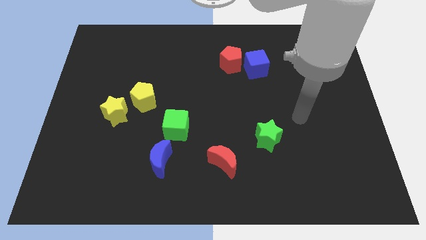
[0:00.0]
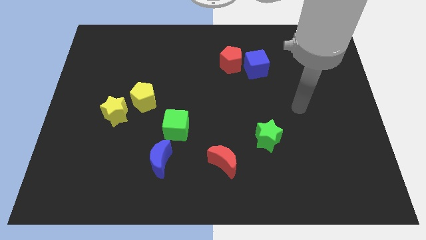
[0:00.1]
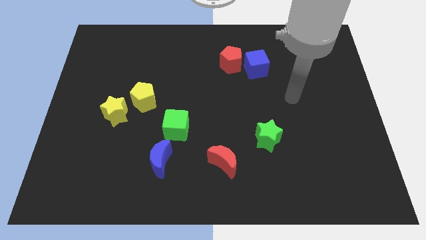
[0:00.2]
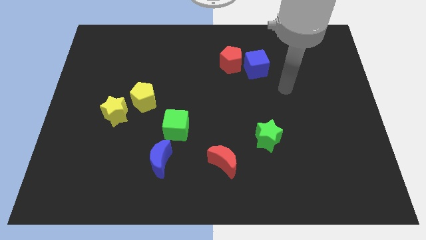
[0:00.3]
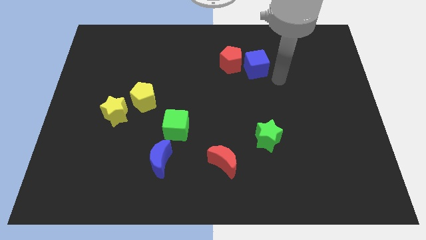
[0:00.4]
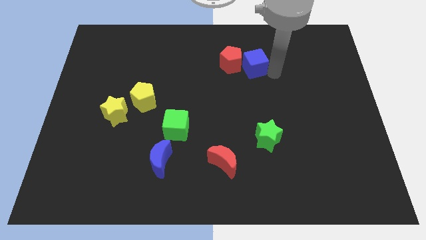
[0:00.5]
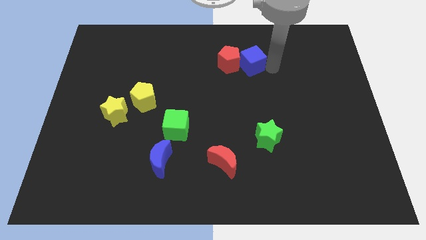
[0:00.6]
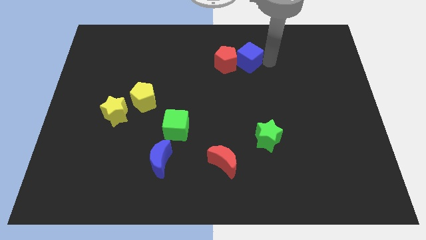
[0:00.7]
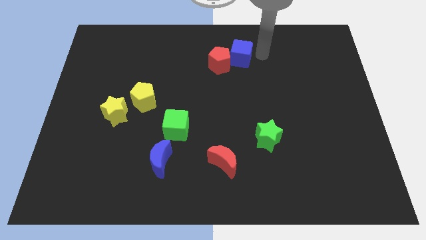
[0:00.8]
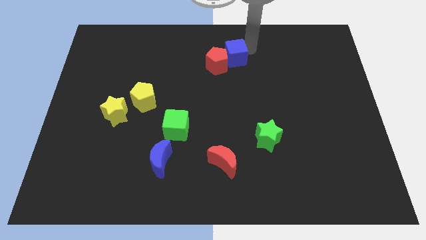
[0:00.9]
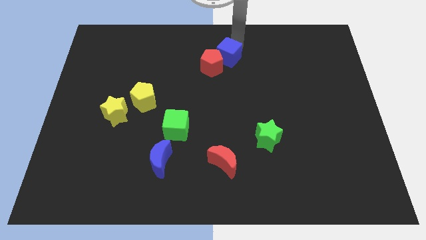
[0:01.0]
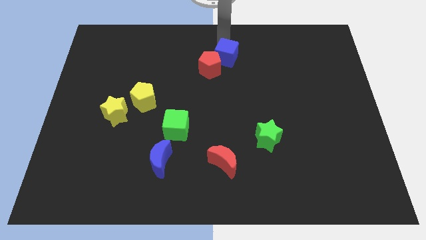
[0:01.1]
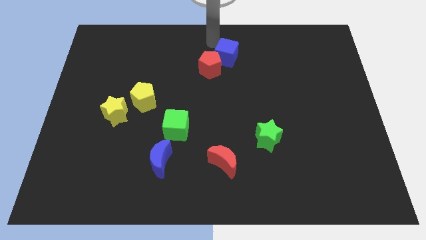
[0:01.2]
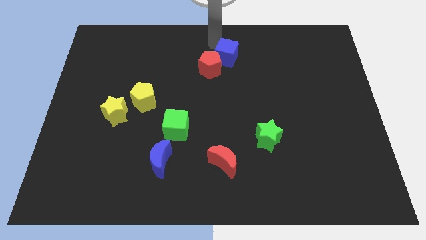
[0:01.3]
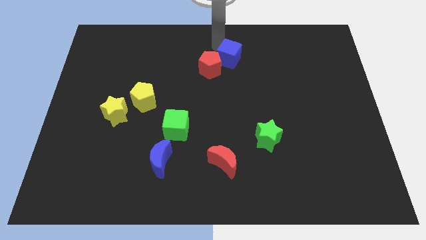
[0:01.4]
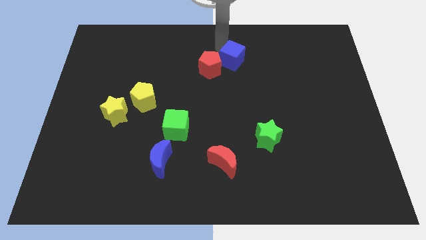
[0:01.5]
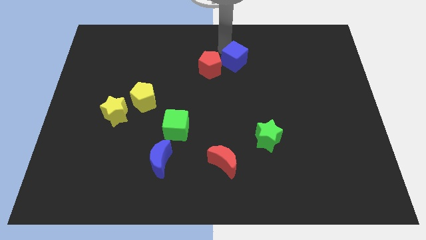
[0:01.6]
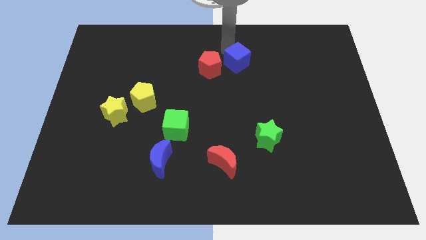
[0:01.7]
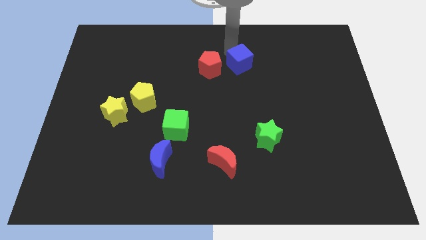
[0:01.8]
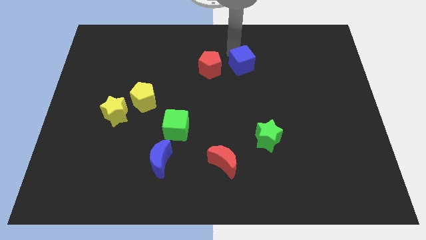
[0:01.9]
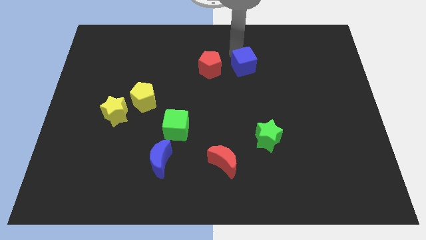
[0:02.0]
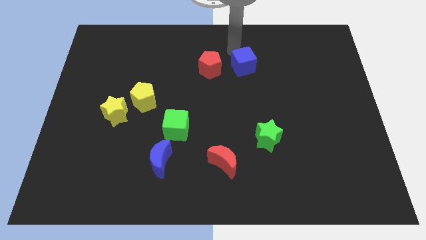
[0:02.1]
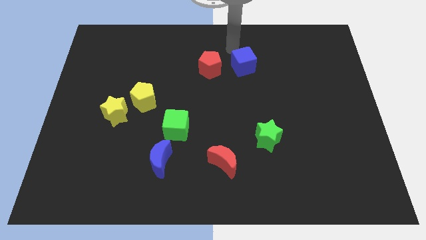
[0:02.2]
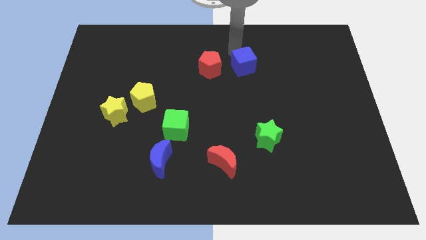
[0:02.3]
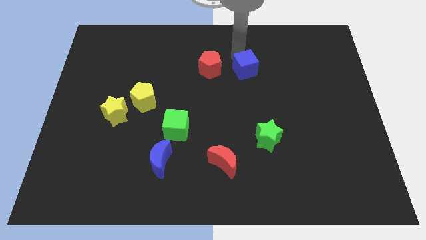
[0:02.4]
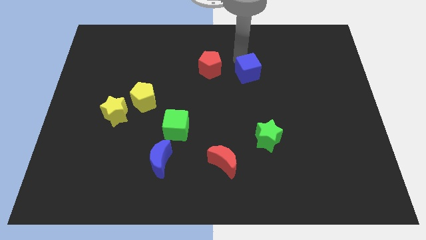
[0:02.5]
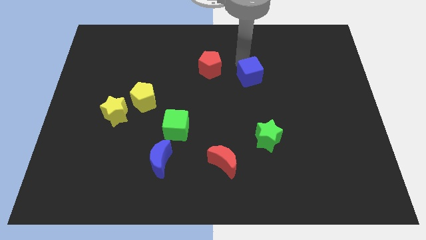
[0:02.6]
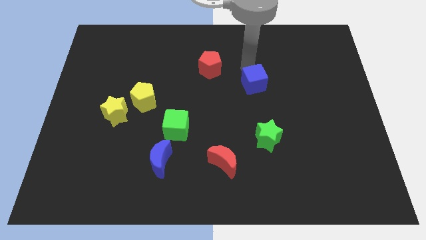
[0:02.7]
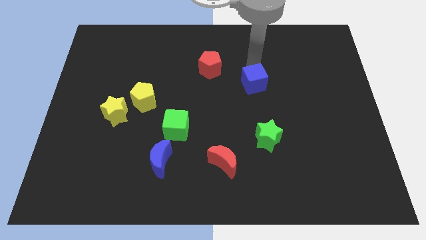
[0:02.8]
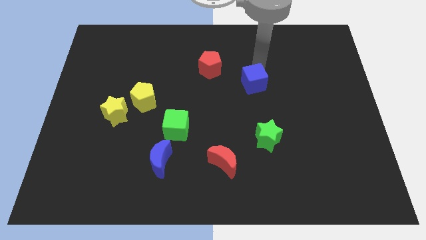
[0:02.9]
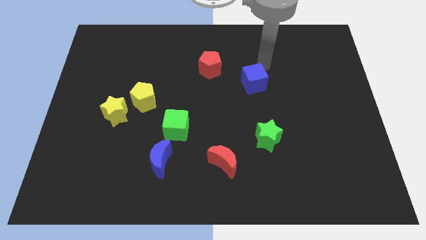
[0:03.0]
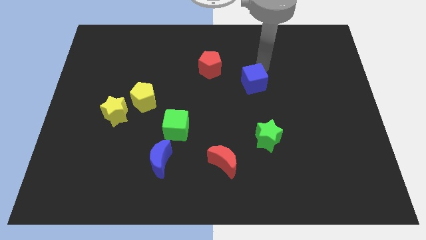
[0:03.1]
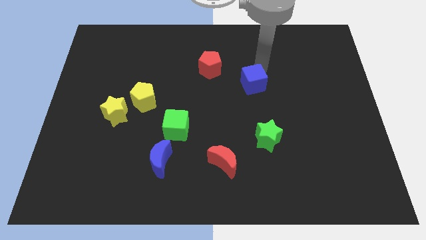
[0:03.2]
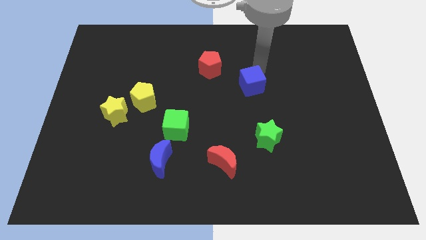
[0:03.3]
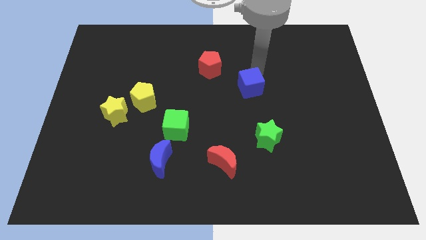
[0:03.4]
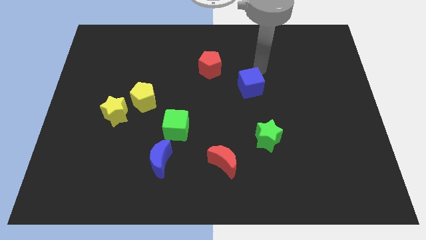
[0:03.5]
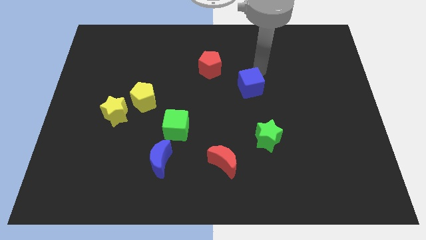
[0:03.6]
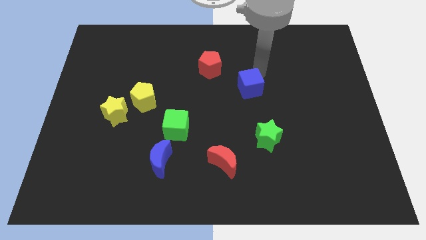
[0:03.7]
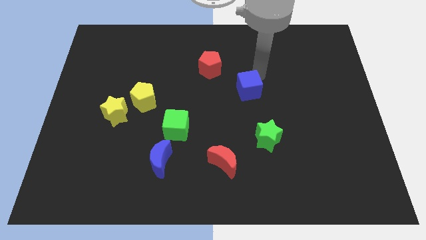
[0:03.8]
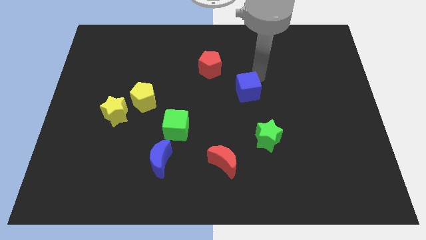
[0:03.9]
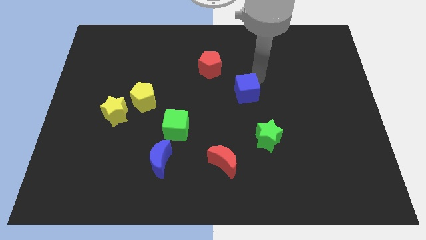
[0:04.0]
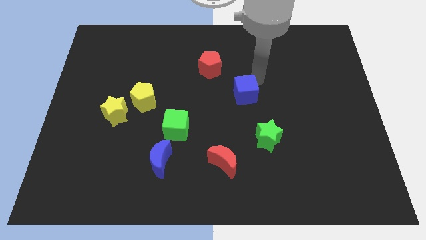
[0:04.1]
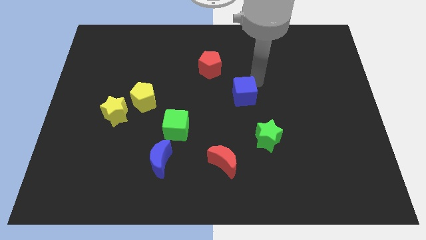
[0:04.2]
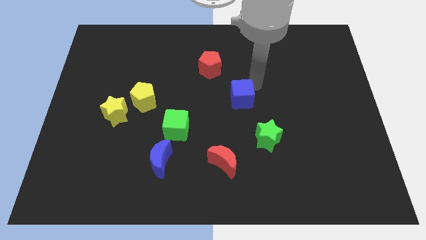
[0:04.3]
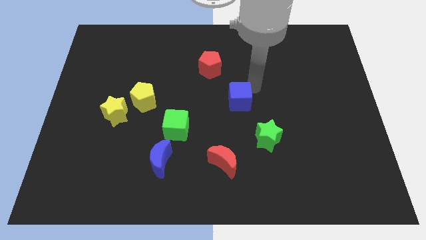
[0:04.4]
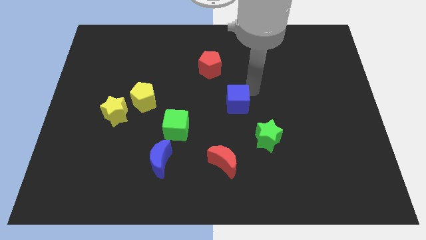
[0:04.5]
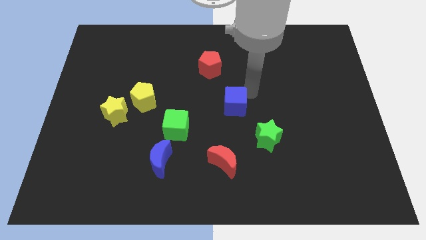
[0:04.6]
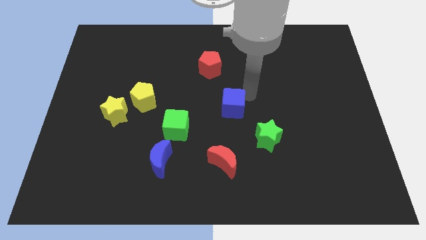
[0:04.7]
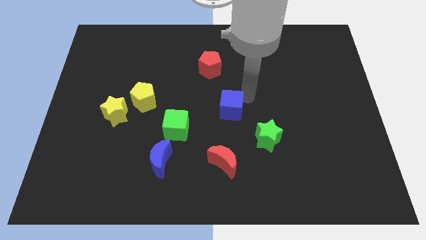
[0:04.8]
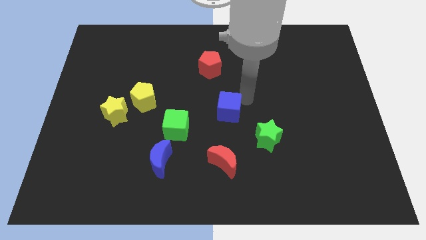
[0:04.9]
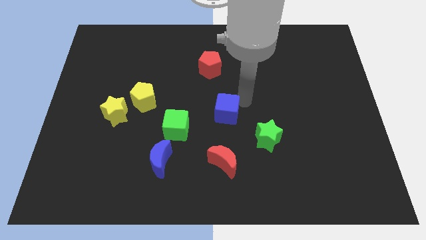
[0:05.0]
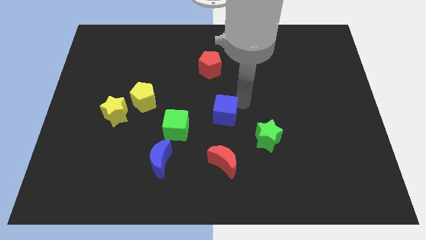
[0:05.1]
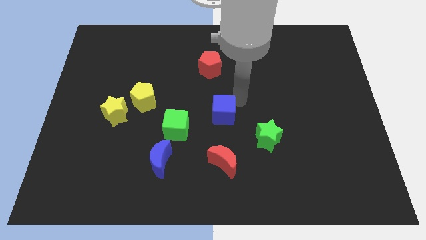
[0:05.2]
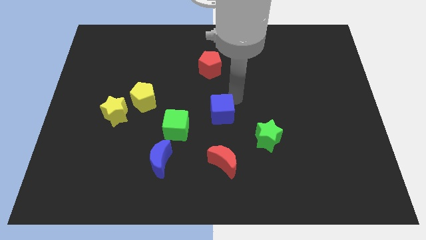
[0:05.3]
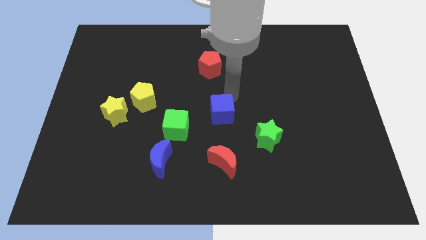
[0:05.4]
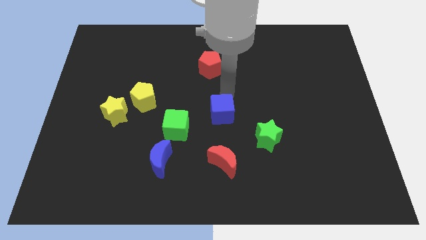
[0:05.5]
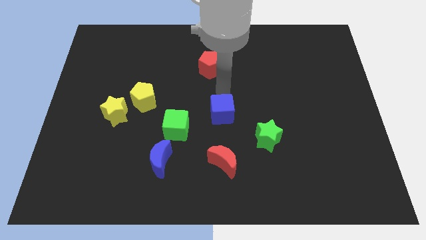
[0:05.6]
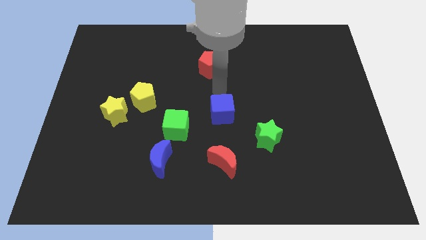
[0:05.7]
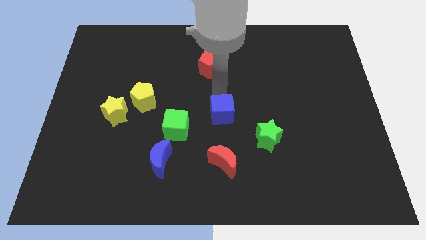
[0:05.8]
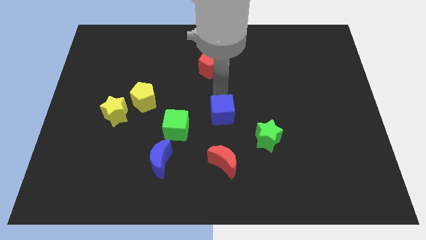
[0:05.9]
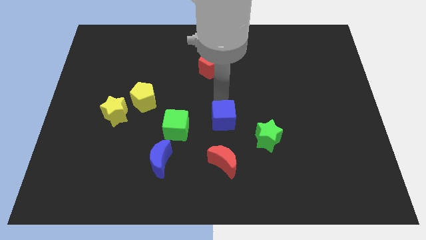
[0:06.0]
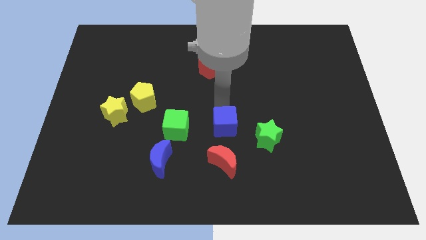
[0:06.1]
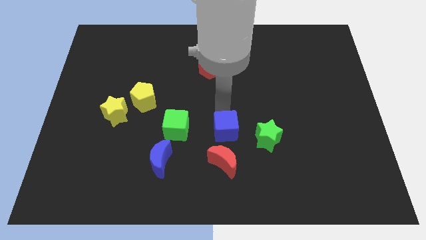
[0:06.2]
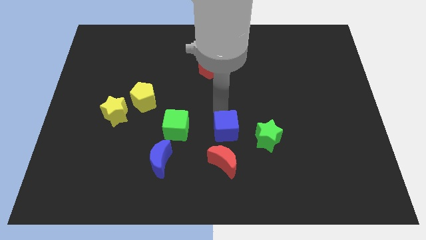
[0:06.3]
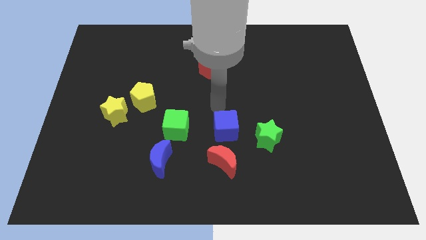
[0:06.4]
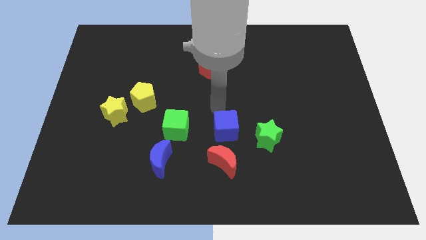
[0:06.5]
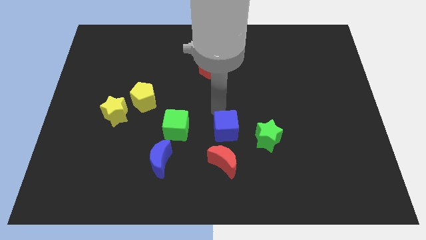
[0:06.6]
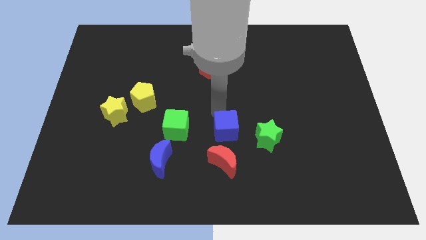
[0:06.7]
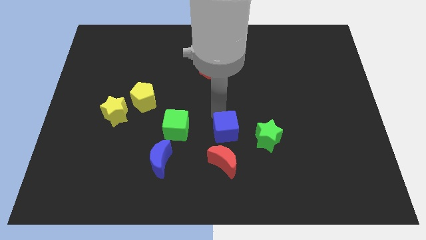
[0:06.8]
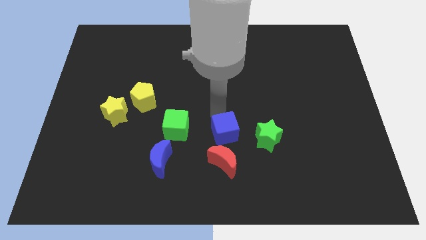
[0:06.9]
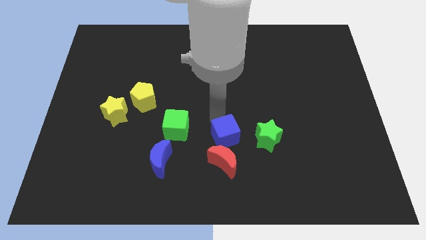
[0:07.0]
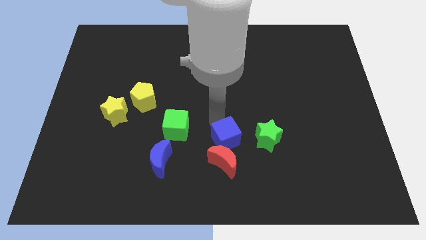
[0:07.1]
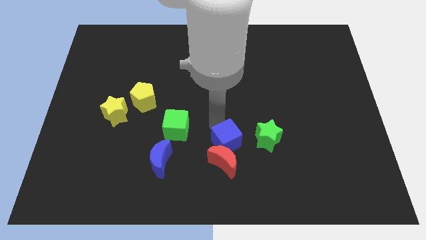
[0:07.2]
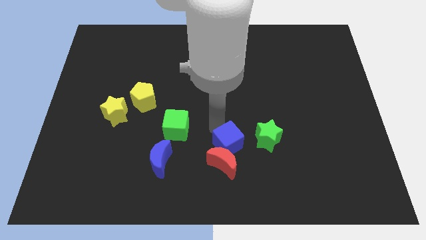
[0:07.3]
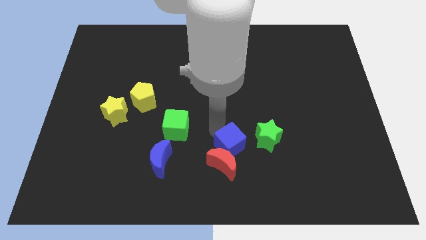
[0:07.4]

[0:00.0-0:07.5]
put the blue cube to the bottom left side of the green star

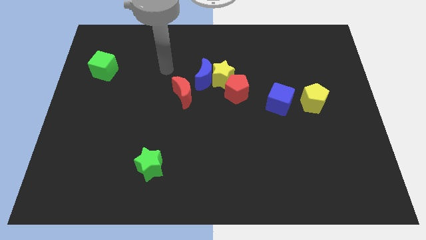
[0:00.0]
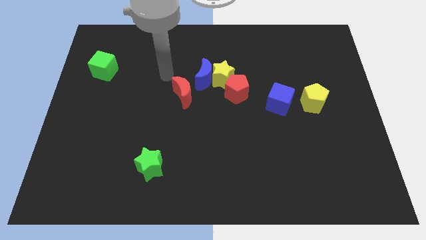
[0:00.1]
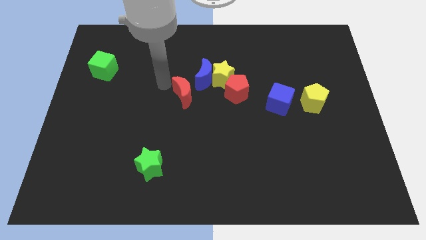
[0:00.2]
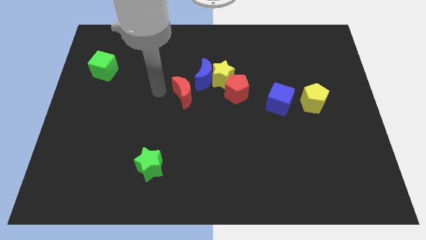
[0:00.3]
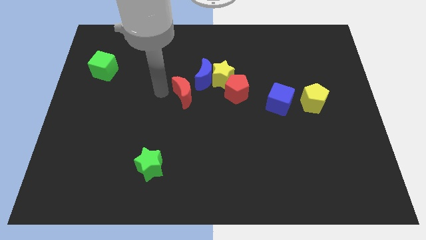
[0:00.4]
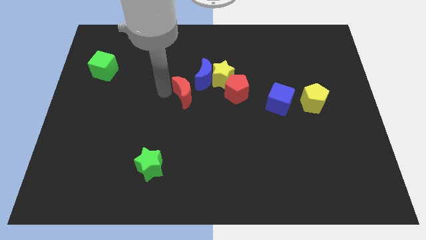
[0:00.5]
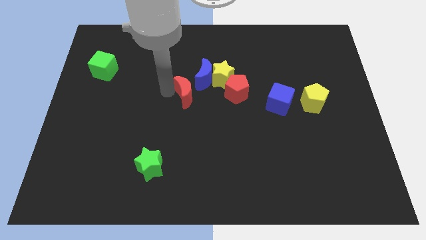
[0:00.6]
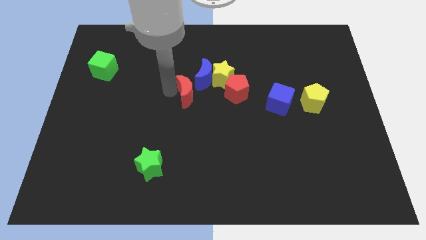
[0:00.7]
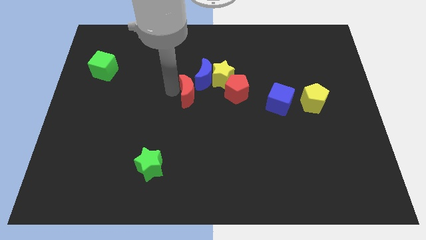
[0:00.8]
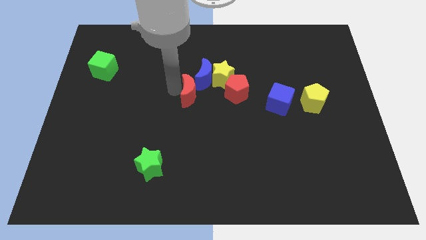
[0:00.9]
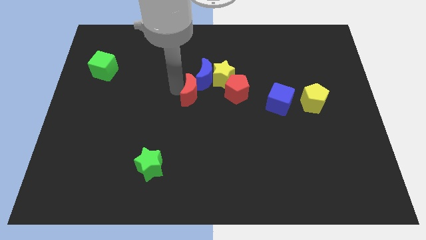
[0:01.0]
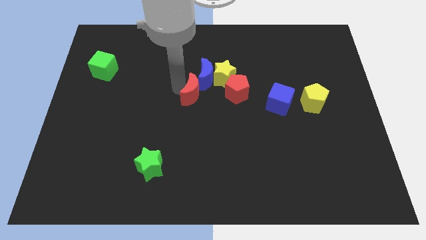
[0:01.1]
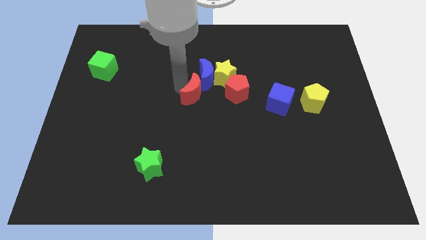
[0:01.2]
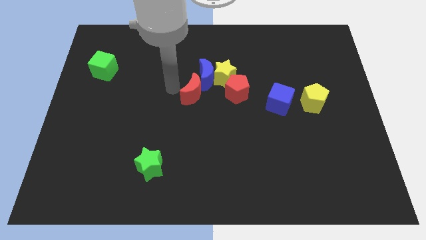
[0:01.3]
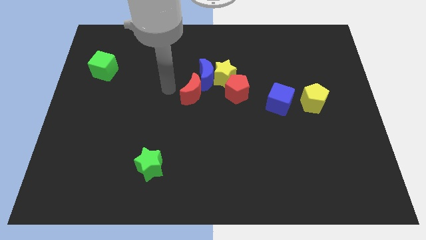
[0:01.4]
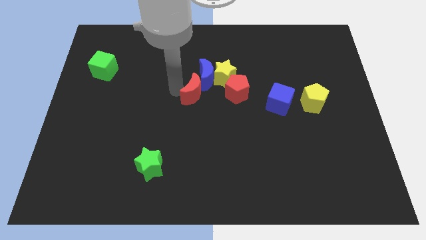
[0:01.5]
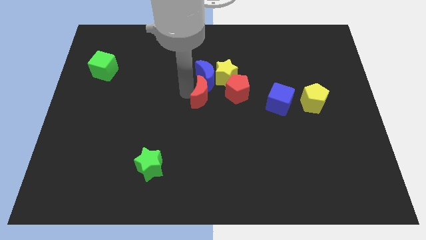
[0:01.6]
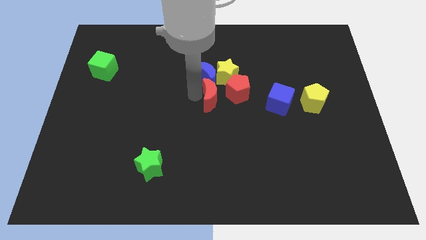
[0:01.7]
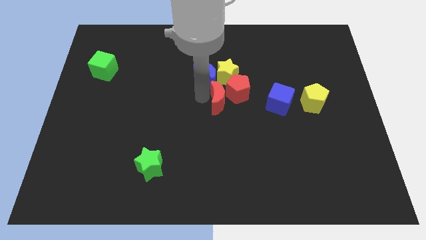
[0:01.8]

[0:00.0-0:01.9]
move the red moon to the left side of the blue cube
